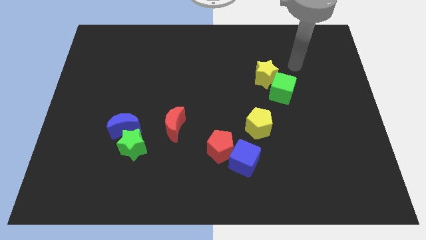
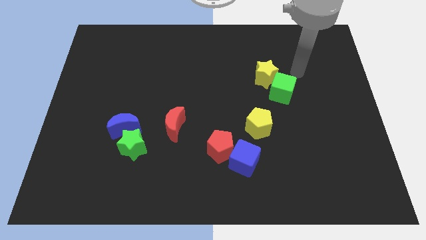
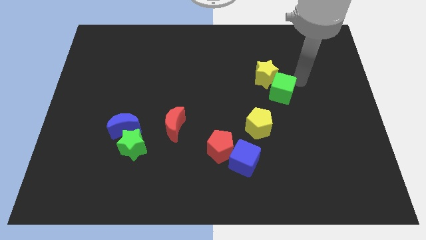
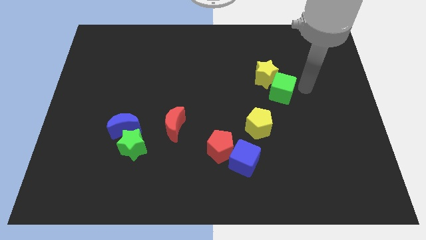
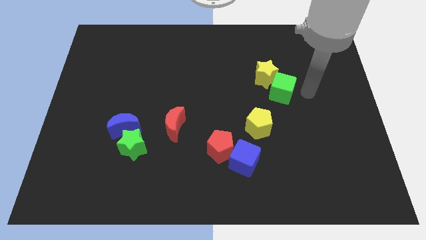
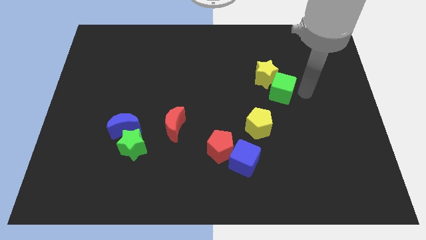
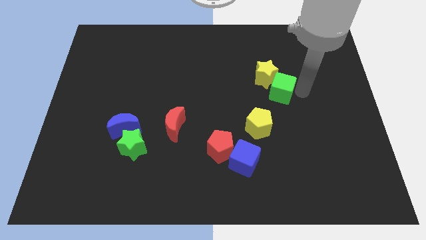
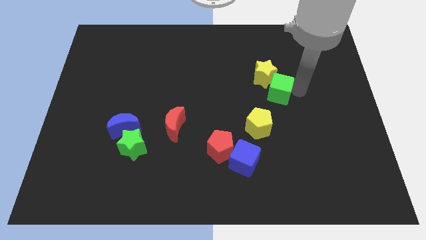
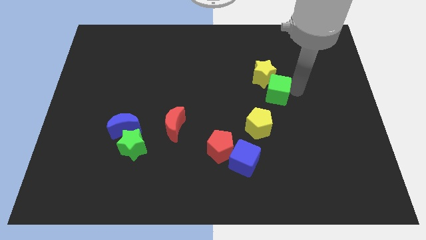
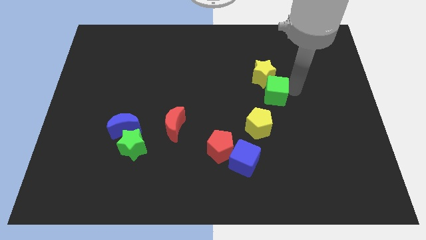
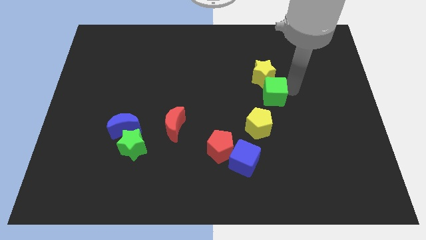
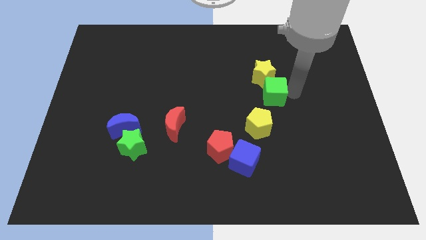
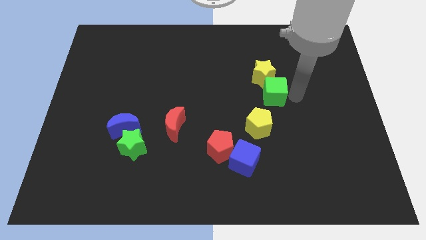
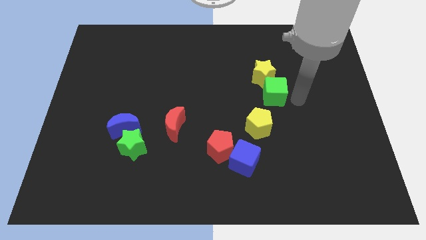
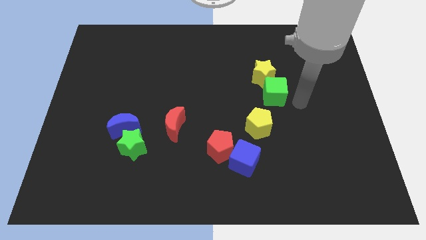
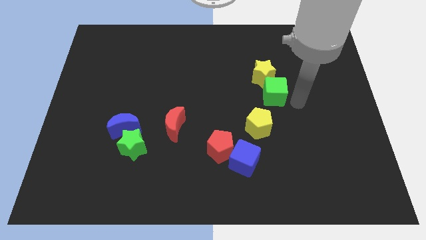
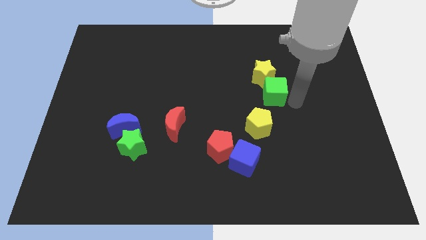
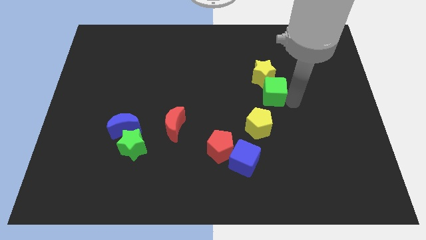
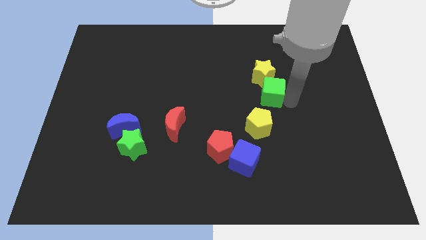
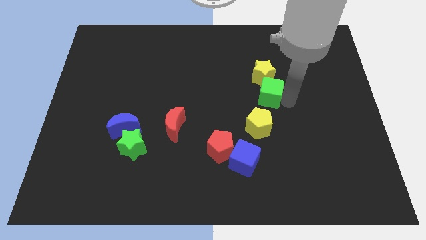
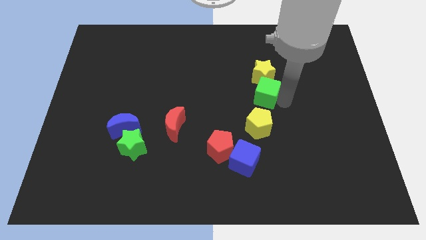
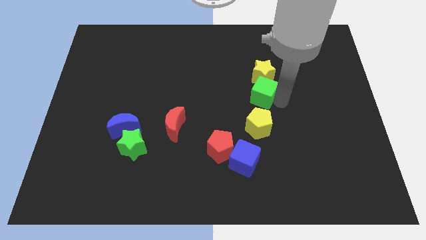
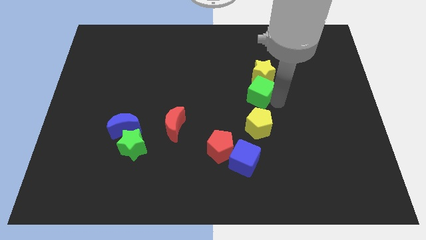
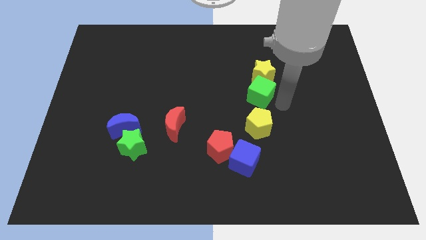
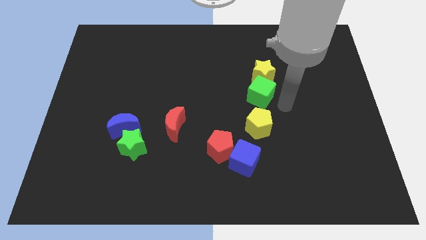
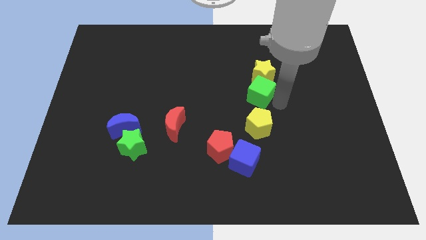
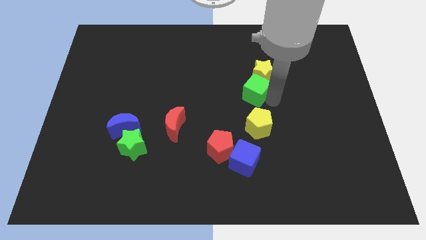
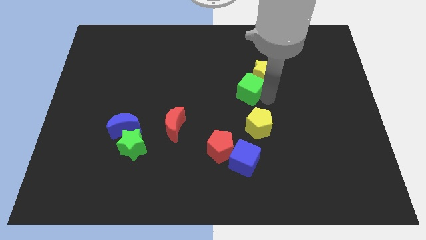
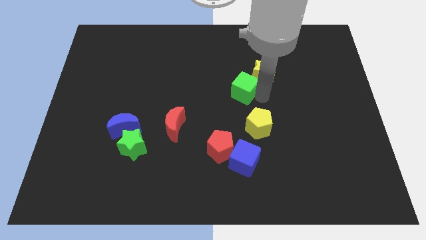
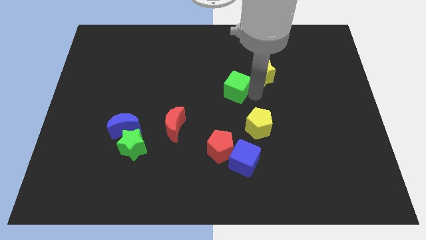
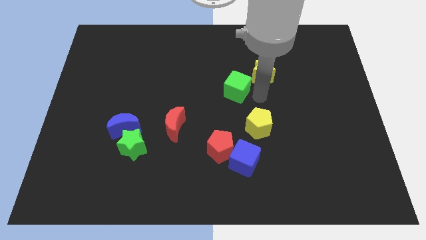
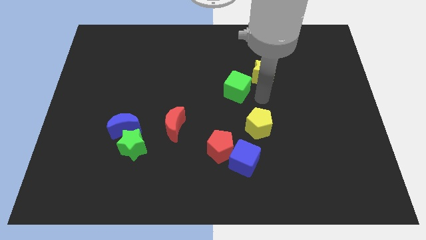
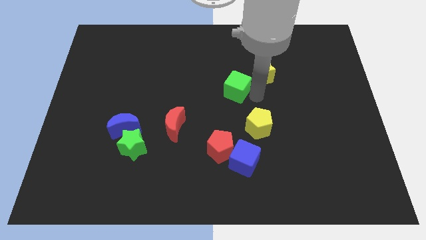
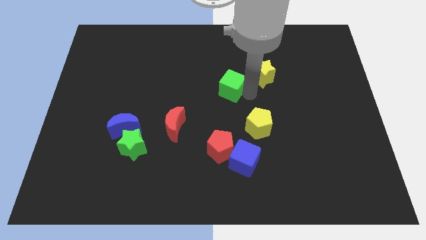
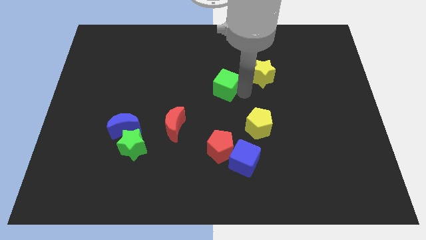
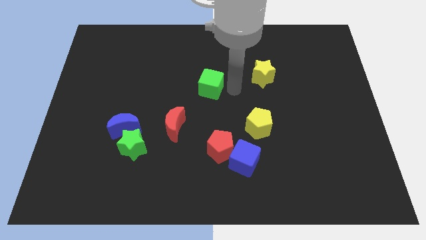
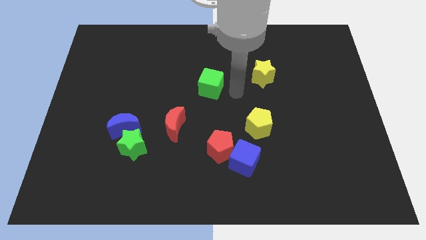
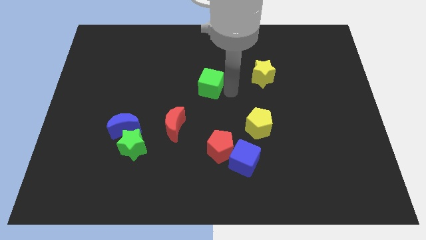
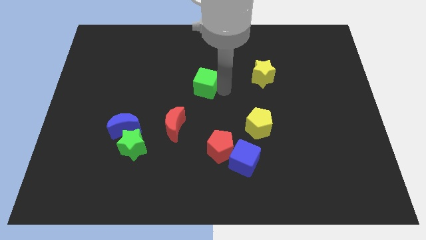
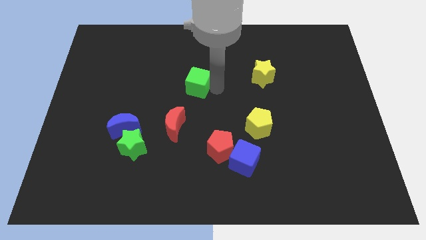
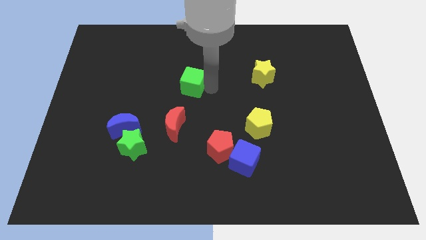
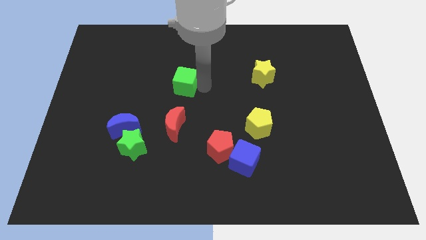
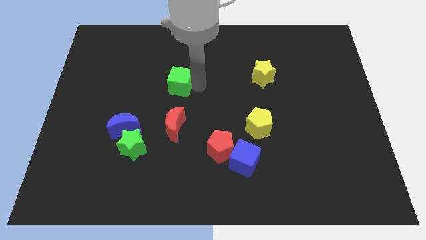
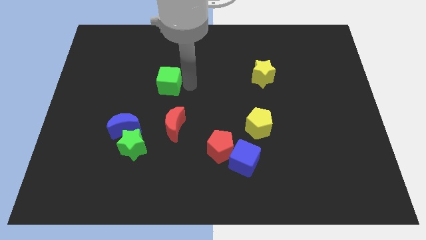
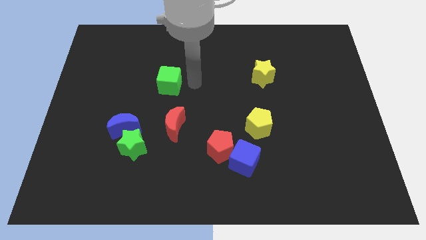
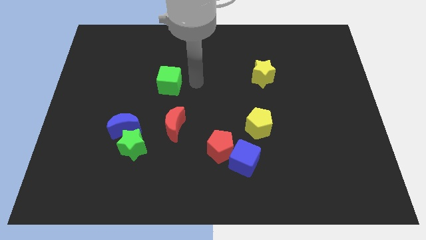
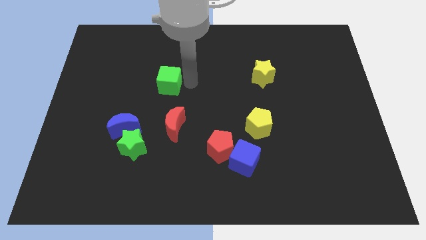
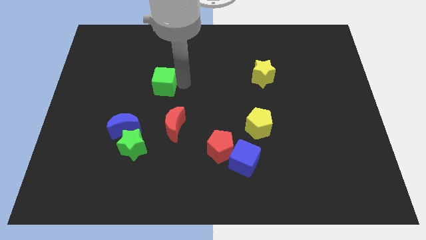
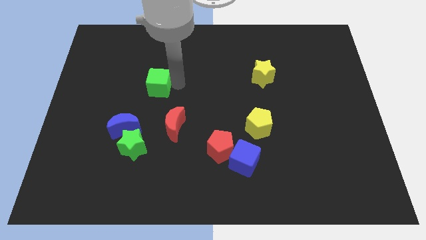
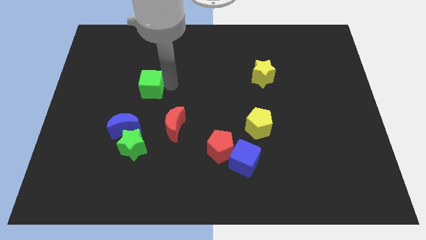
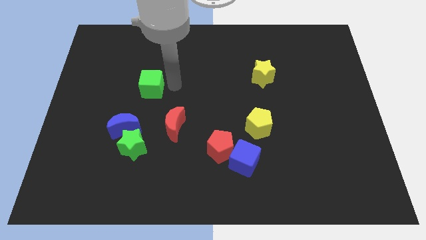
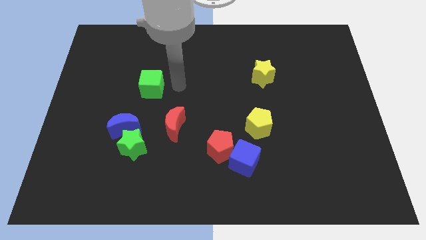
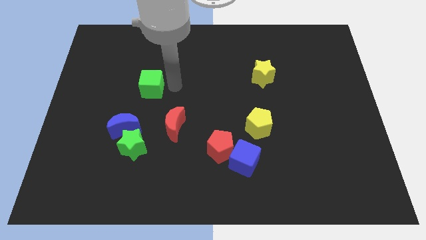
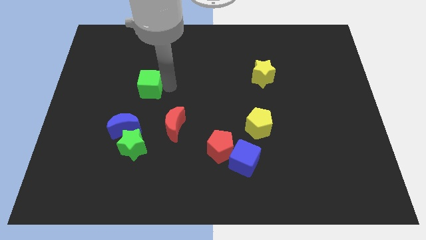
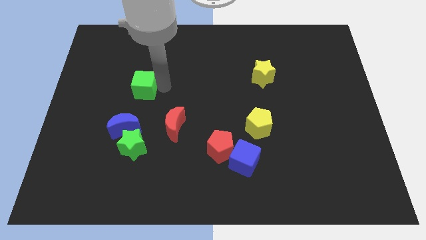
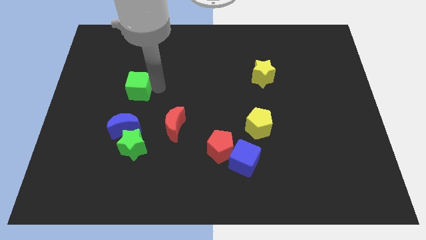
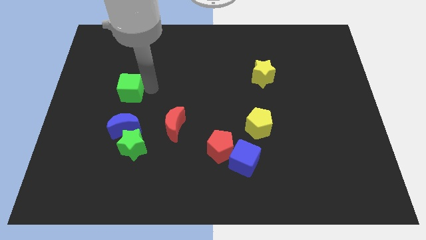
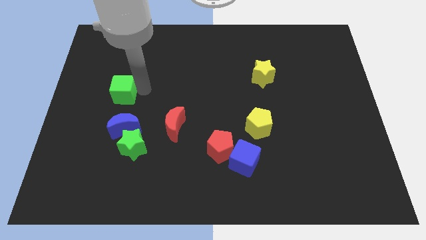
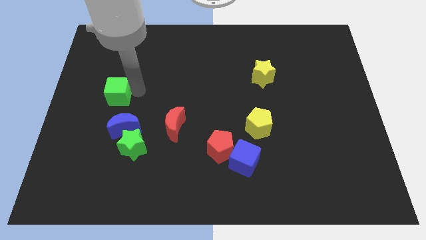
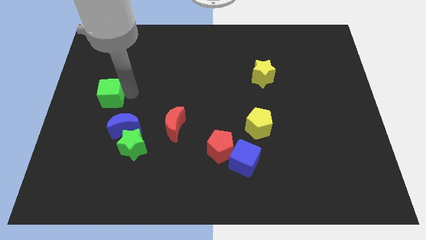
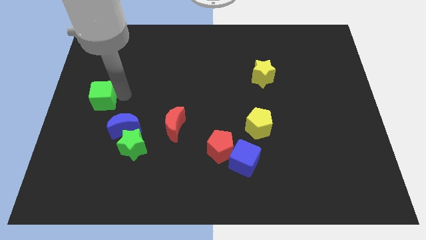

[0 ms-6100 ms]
slide the green cube to the left side of the board

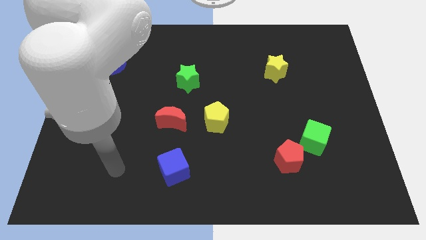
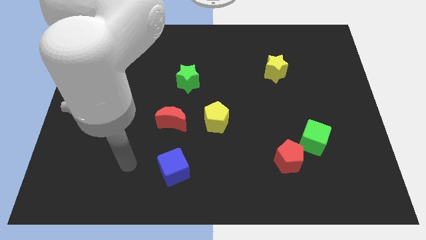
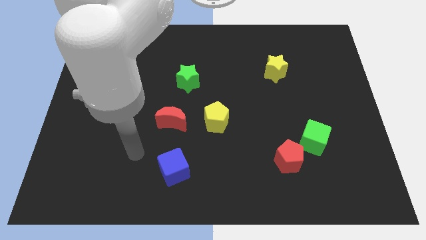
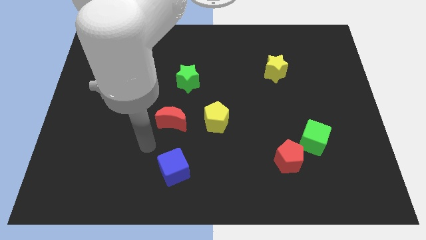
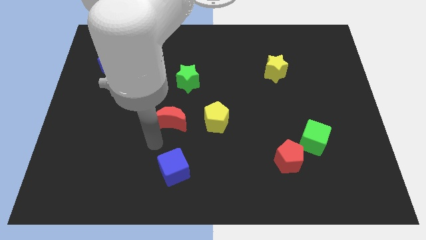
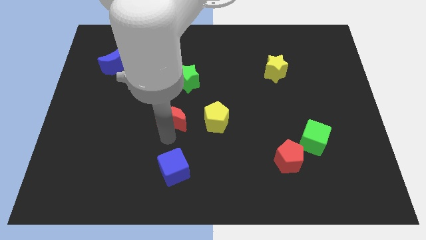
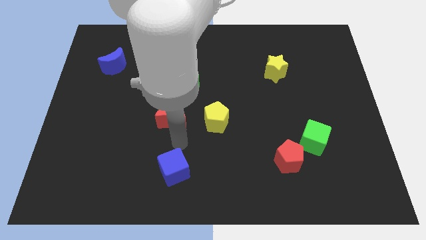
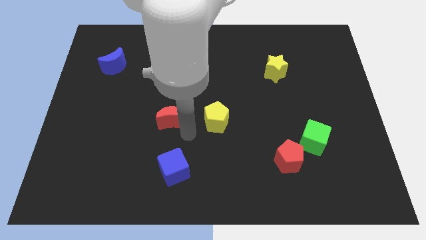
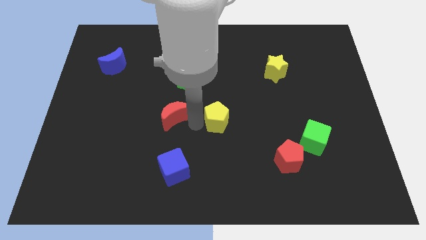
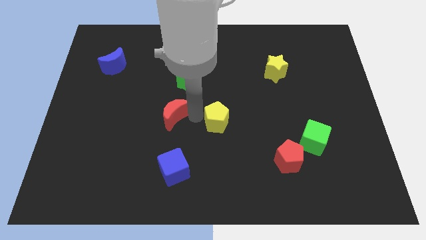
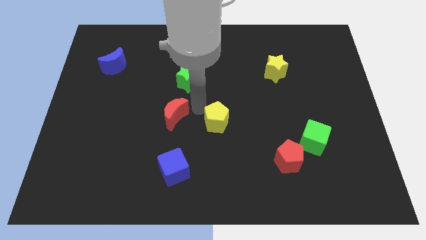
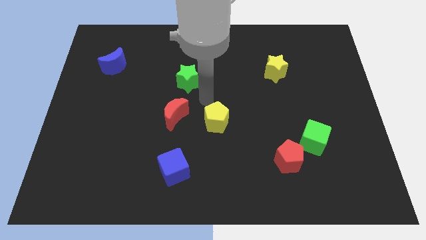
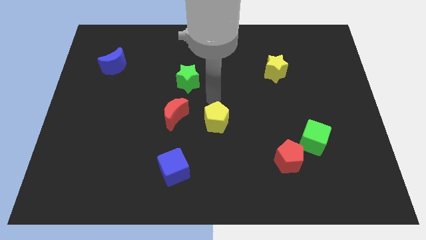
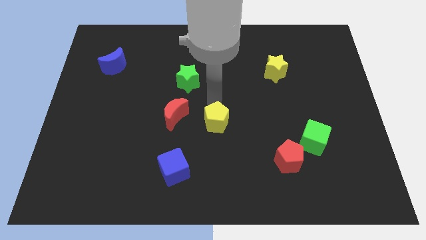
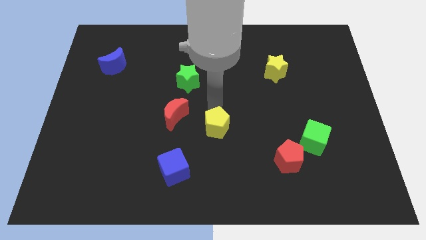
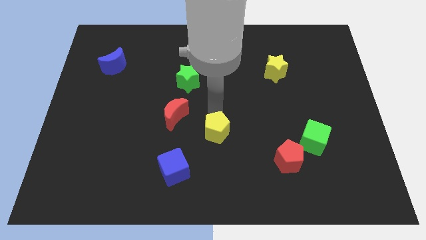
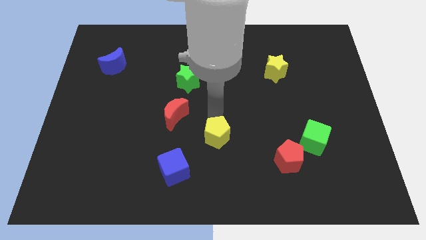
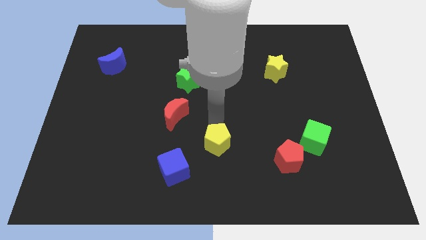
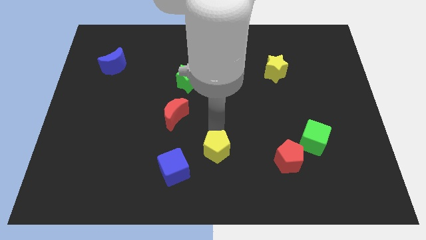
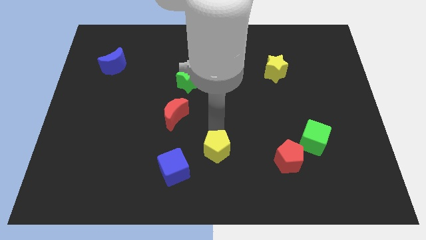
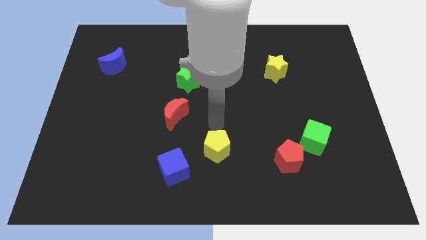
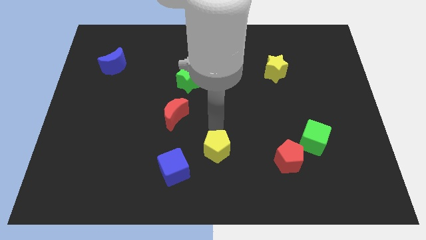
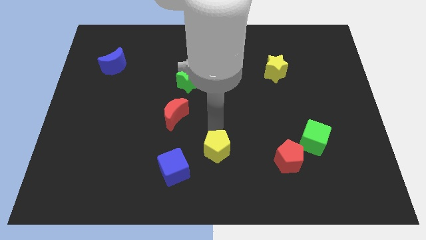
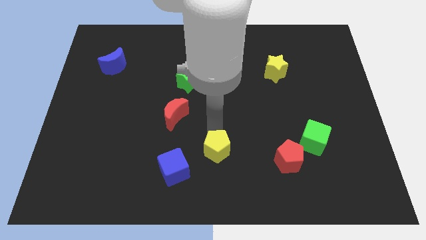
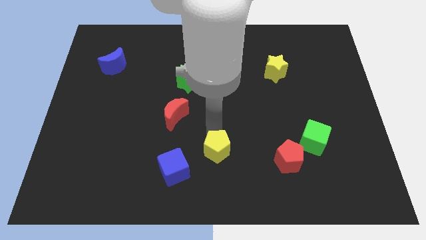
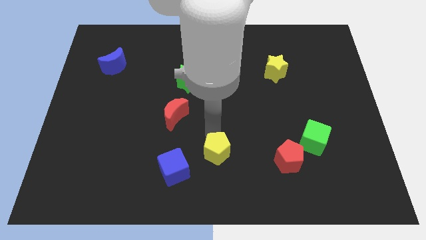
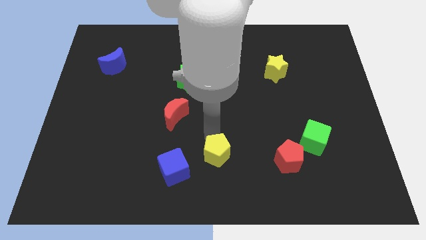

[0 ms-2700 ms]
push the yellow pentagon to the bottom
